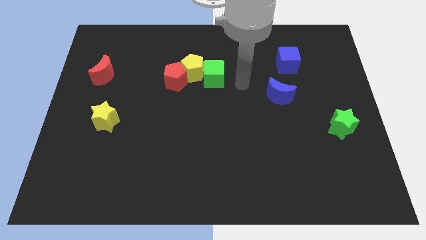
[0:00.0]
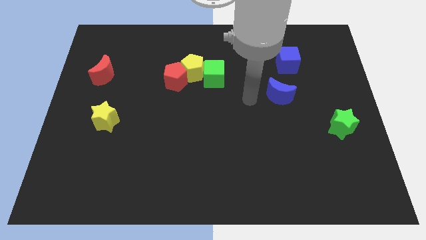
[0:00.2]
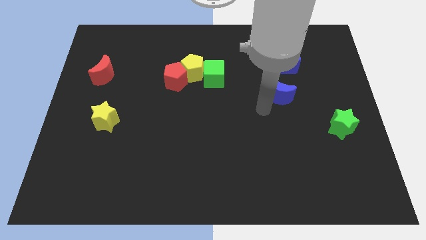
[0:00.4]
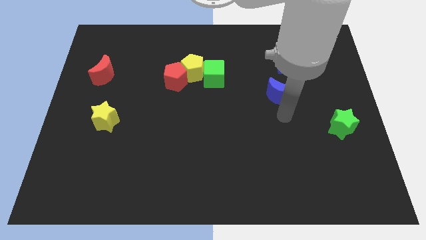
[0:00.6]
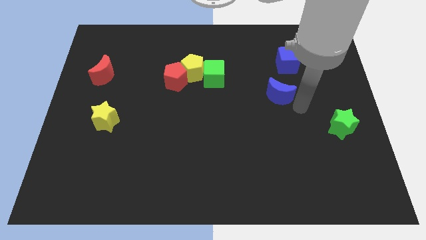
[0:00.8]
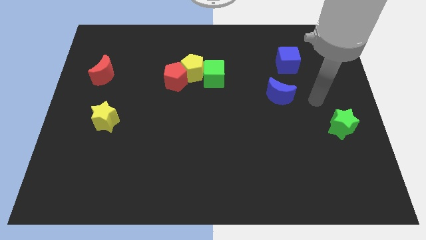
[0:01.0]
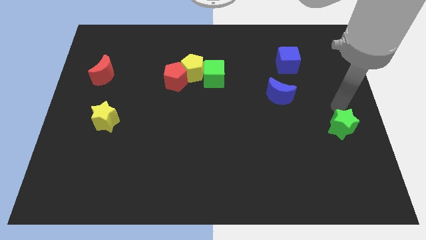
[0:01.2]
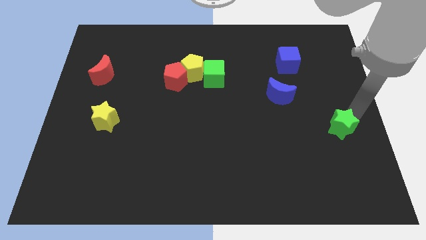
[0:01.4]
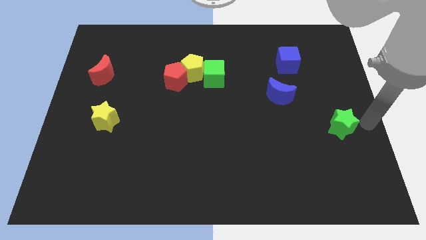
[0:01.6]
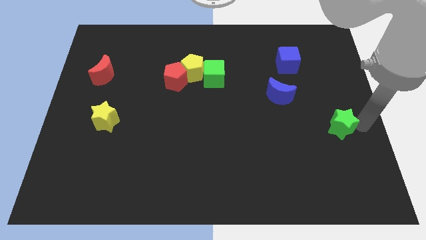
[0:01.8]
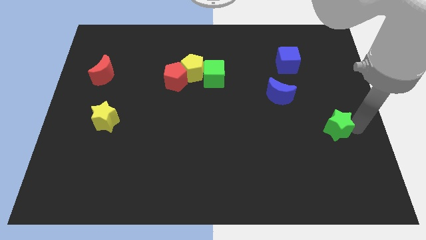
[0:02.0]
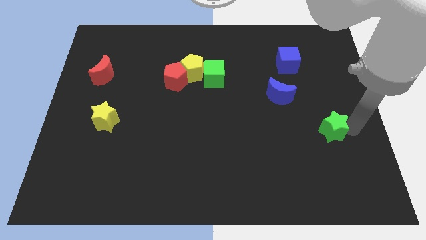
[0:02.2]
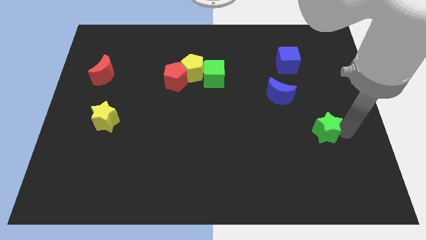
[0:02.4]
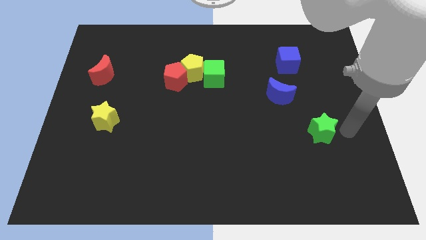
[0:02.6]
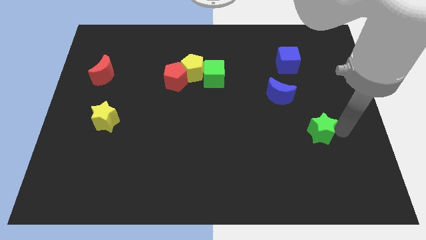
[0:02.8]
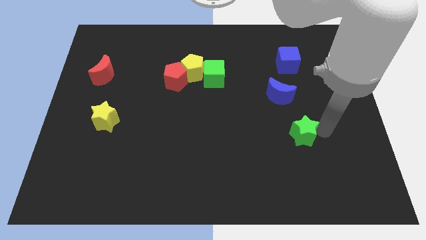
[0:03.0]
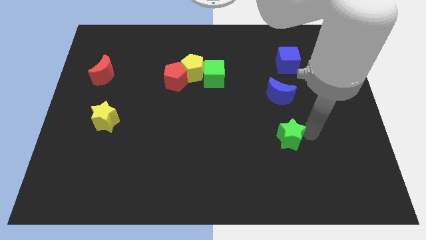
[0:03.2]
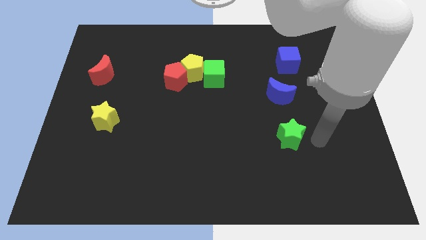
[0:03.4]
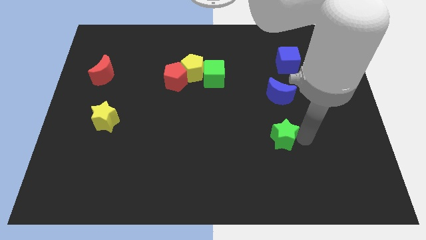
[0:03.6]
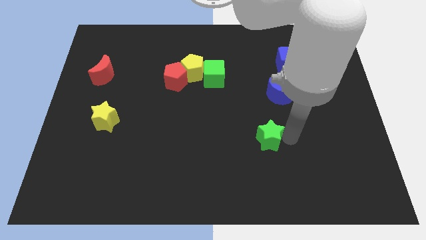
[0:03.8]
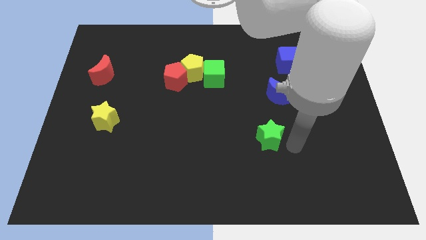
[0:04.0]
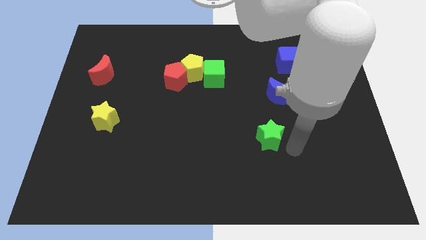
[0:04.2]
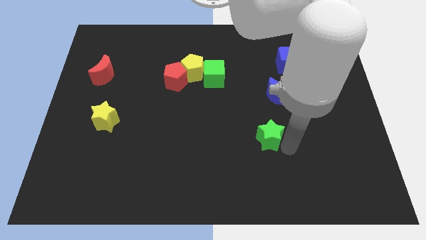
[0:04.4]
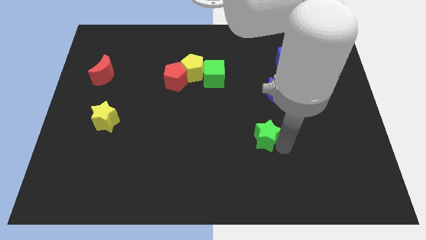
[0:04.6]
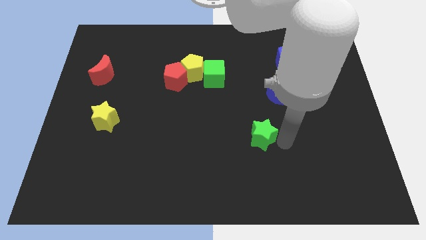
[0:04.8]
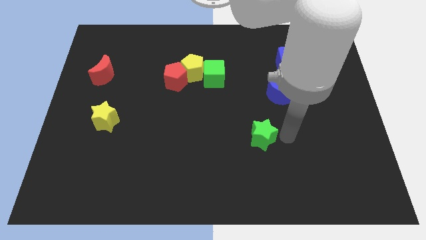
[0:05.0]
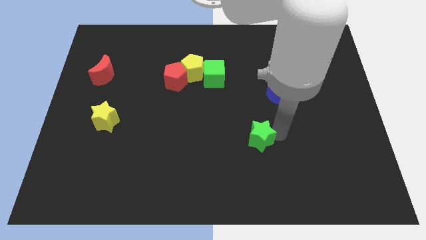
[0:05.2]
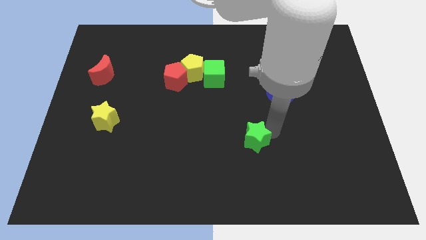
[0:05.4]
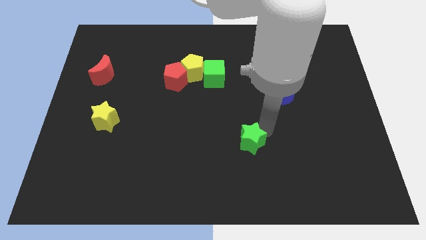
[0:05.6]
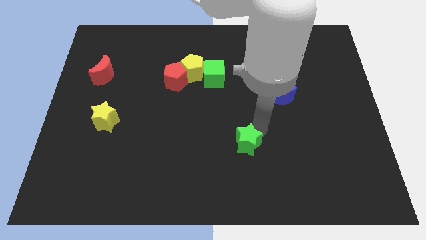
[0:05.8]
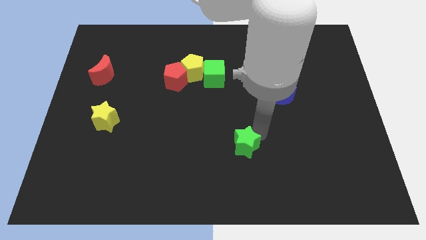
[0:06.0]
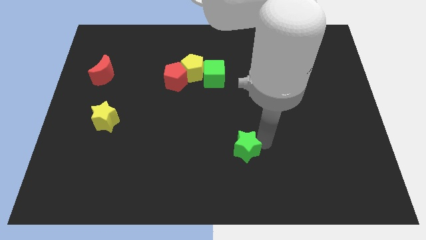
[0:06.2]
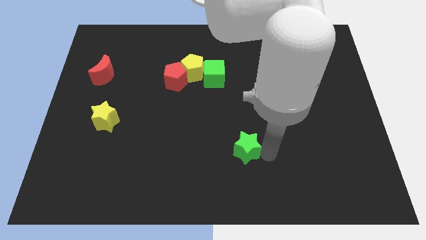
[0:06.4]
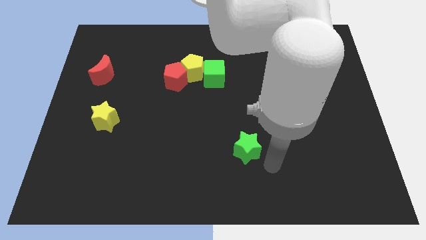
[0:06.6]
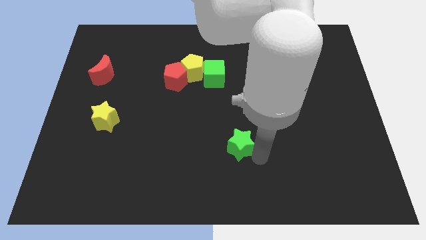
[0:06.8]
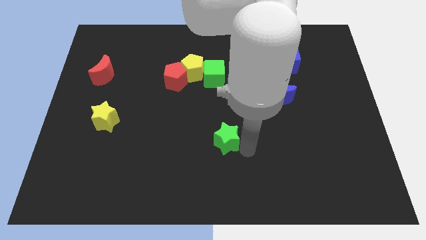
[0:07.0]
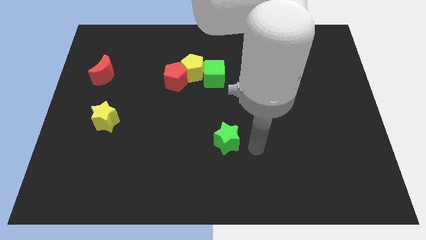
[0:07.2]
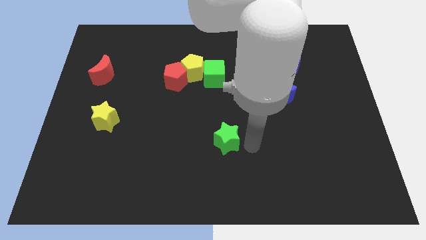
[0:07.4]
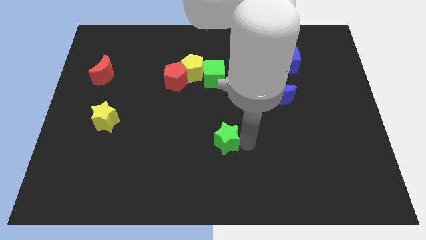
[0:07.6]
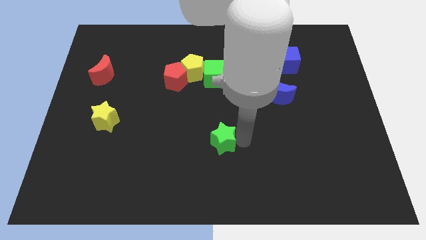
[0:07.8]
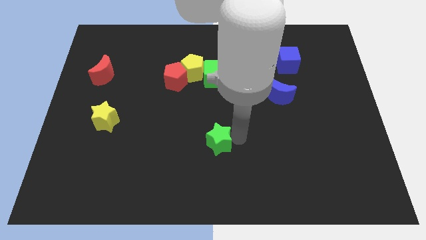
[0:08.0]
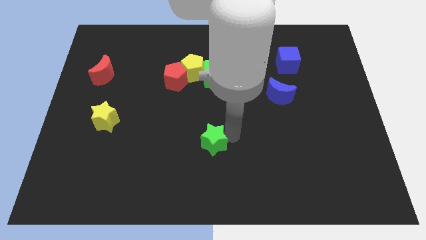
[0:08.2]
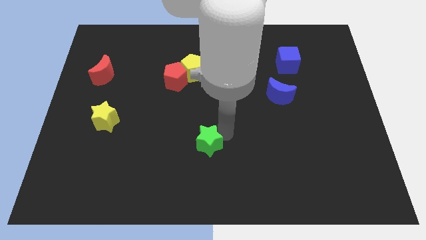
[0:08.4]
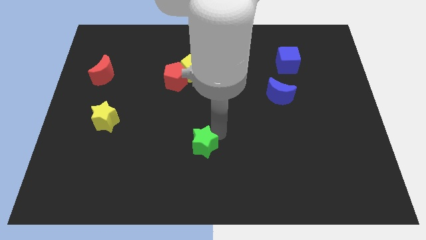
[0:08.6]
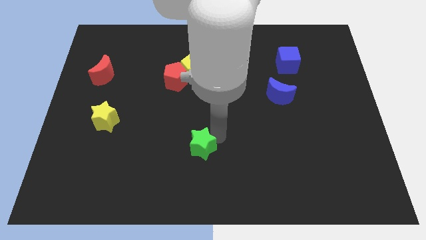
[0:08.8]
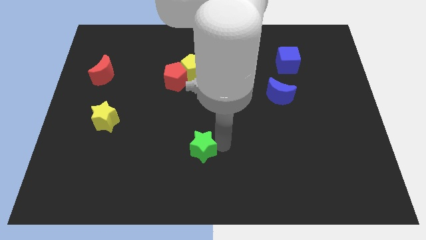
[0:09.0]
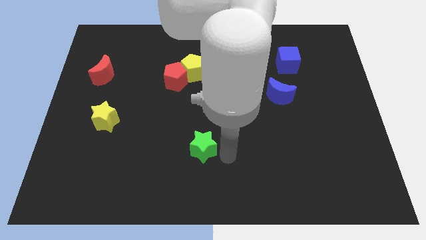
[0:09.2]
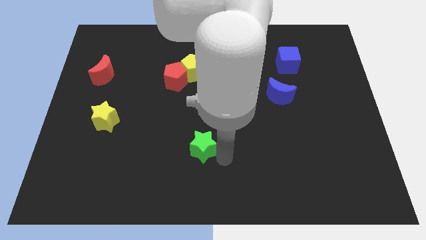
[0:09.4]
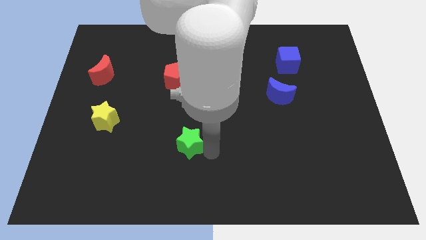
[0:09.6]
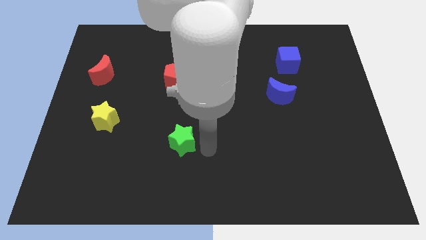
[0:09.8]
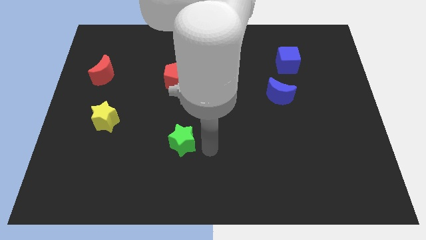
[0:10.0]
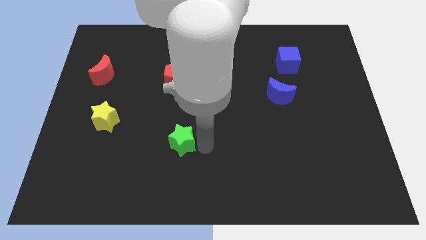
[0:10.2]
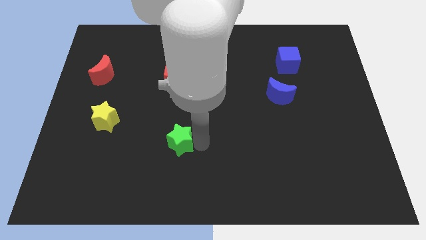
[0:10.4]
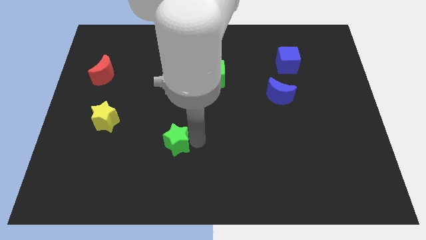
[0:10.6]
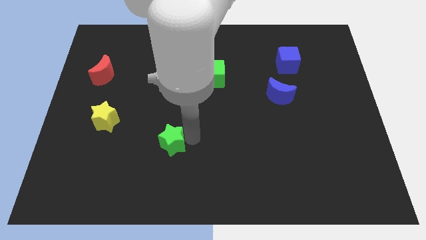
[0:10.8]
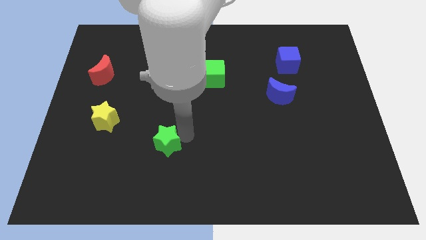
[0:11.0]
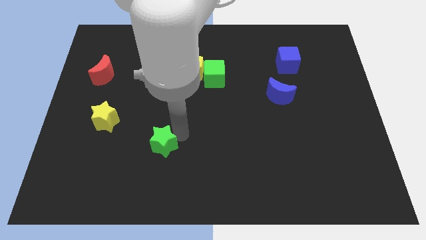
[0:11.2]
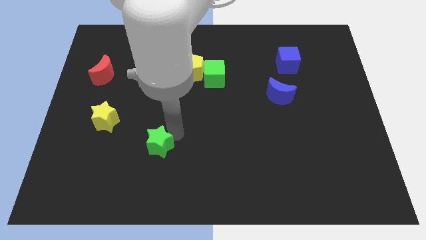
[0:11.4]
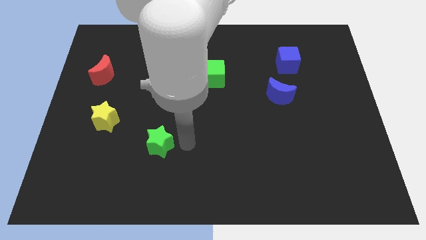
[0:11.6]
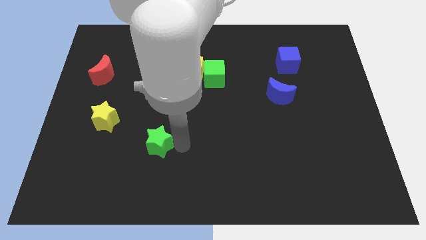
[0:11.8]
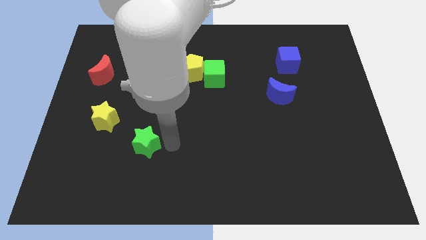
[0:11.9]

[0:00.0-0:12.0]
slide the green star to the bottom right side of the yellow star
